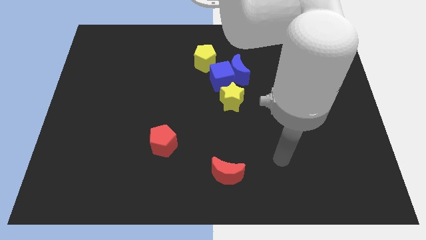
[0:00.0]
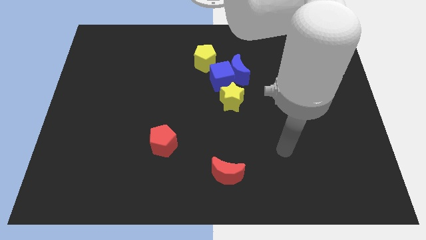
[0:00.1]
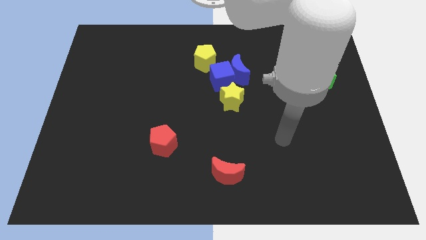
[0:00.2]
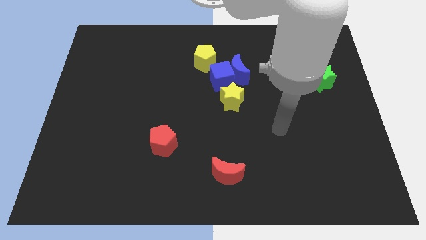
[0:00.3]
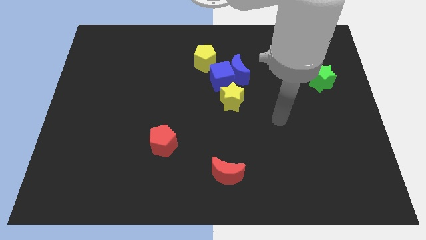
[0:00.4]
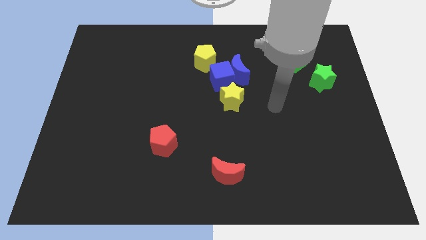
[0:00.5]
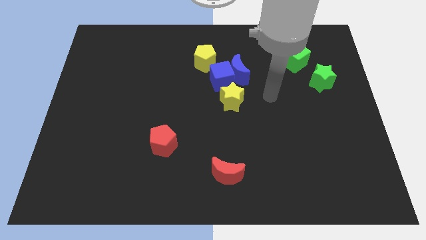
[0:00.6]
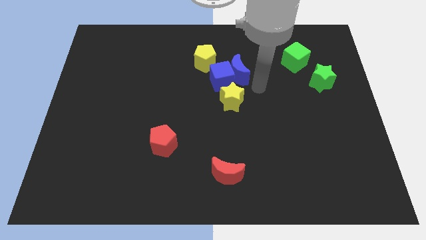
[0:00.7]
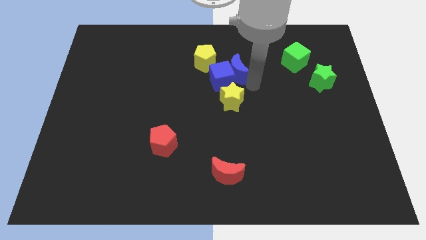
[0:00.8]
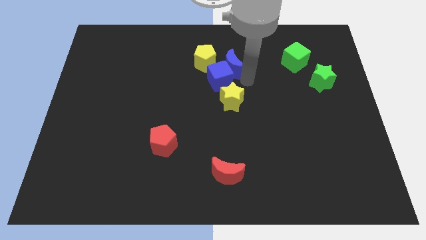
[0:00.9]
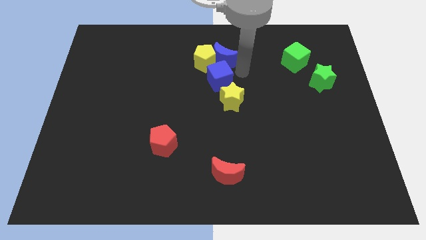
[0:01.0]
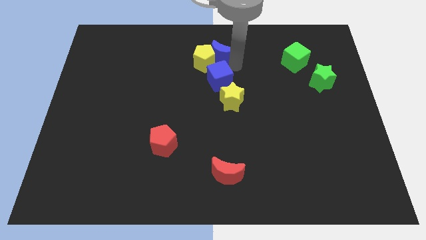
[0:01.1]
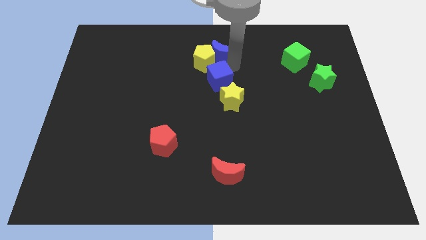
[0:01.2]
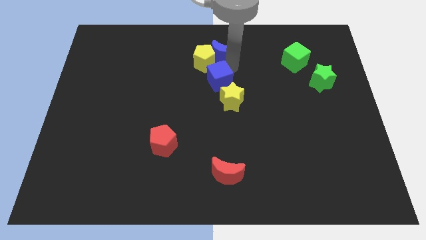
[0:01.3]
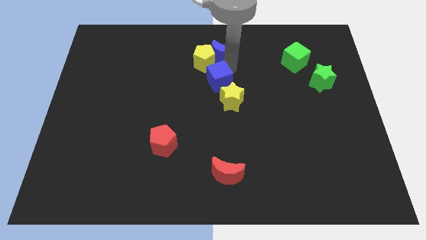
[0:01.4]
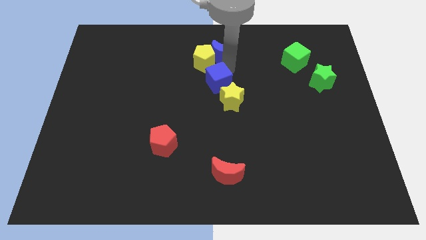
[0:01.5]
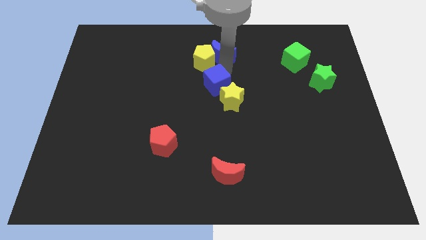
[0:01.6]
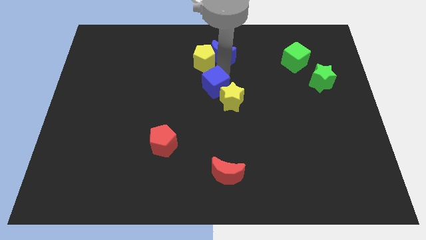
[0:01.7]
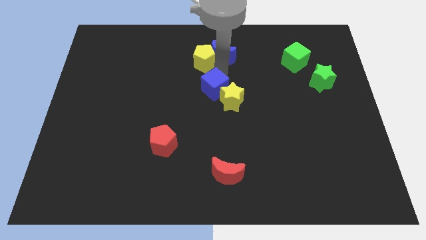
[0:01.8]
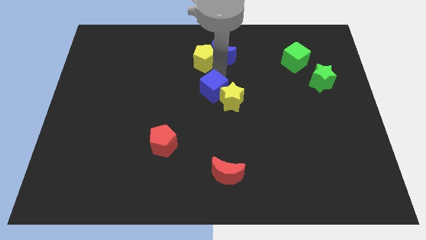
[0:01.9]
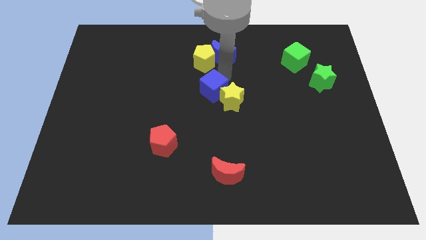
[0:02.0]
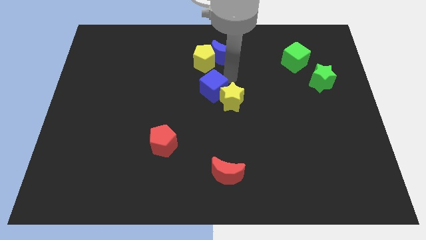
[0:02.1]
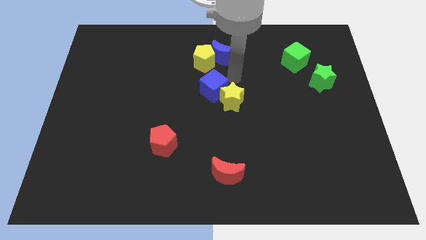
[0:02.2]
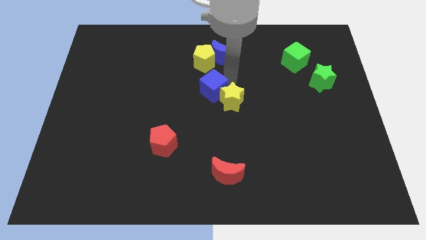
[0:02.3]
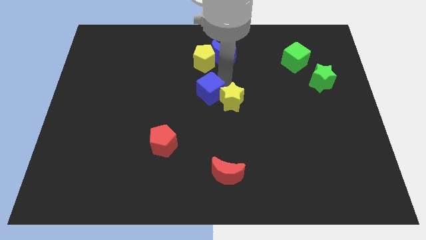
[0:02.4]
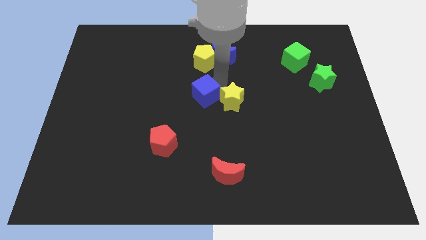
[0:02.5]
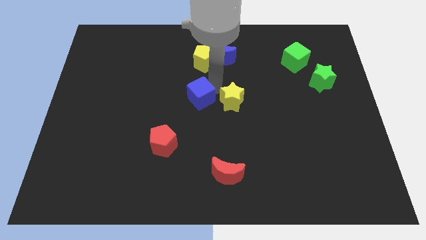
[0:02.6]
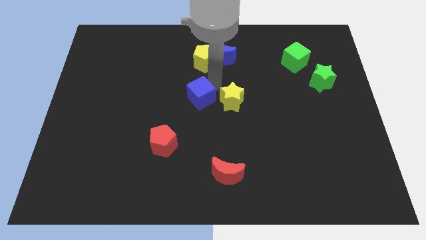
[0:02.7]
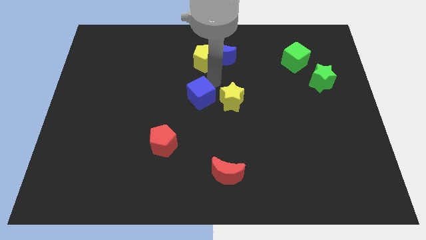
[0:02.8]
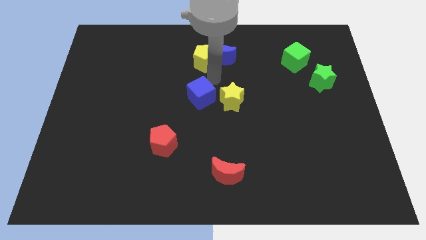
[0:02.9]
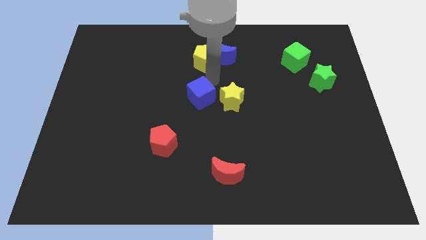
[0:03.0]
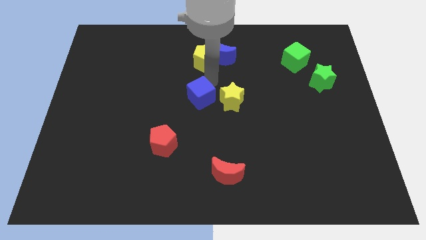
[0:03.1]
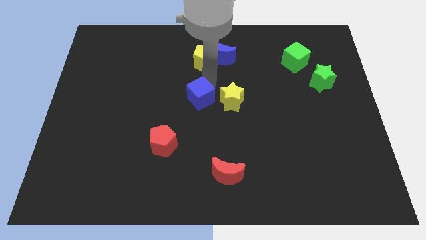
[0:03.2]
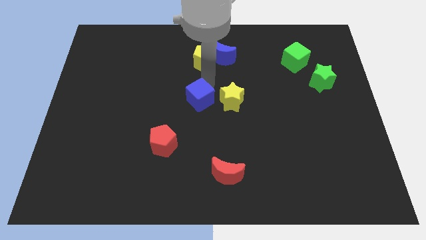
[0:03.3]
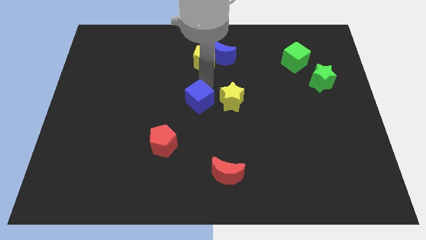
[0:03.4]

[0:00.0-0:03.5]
move the blue cube away from the group

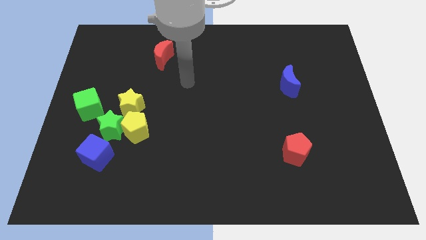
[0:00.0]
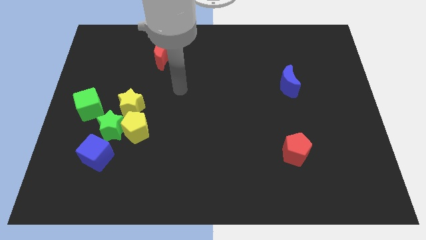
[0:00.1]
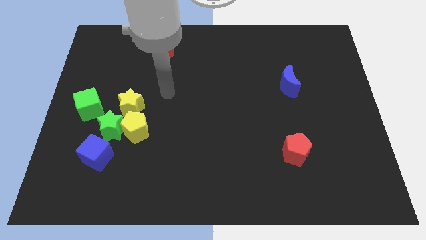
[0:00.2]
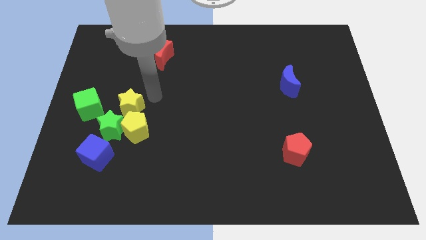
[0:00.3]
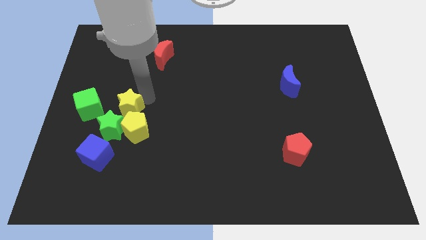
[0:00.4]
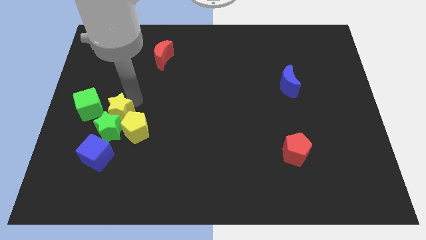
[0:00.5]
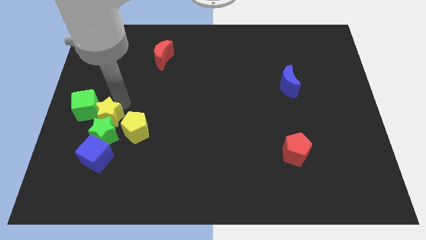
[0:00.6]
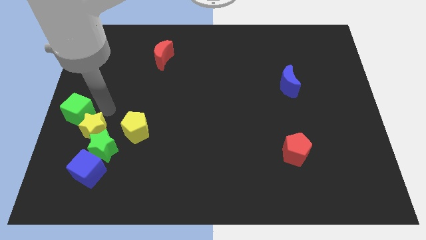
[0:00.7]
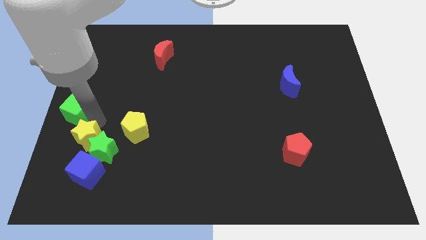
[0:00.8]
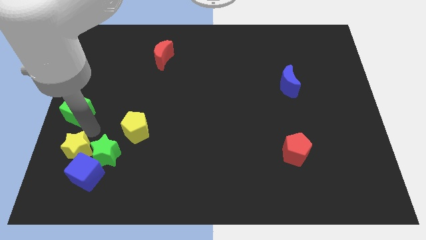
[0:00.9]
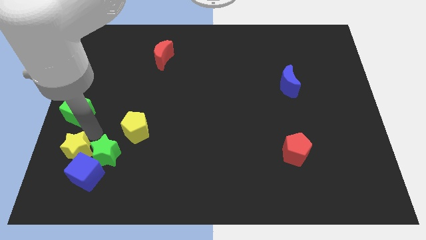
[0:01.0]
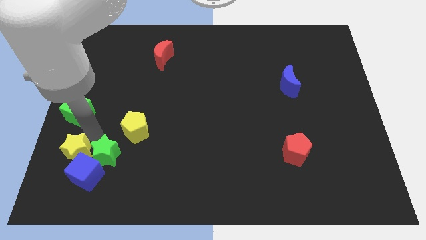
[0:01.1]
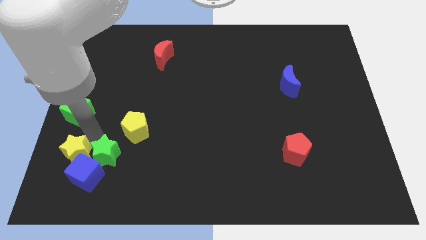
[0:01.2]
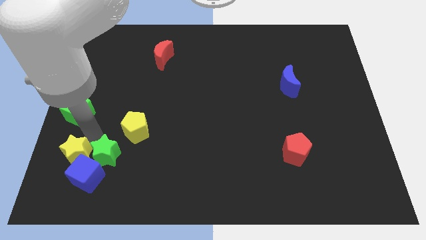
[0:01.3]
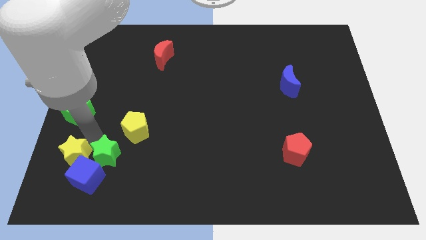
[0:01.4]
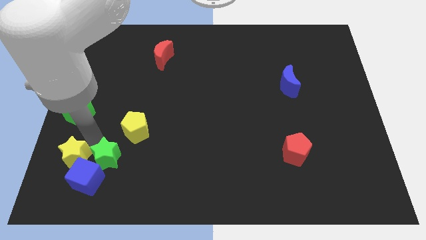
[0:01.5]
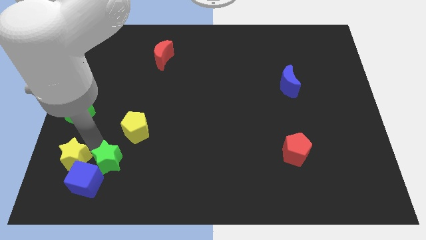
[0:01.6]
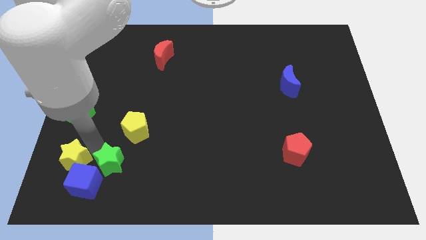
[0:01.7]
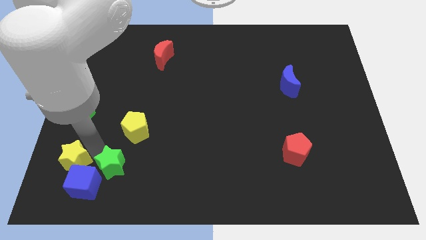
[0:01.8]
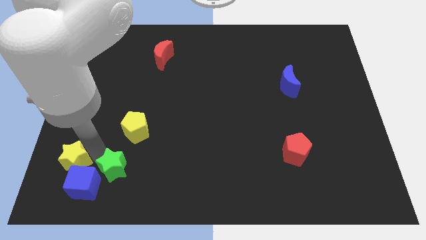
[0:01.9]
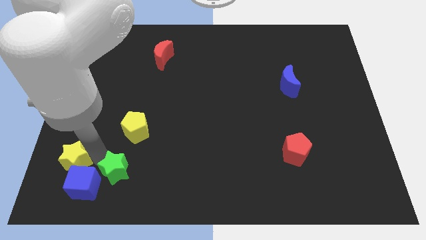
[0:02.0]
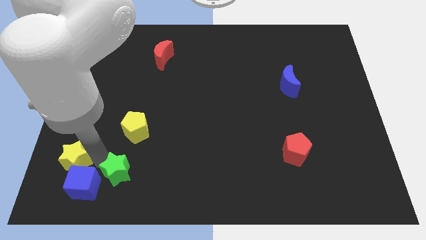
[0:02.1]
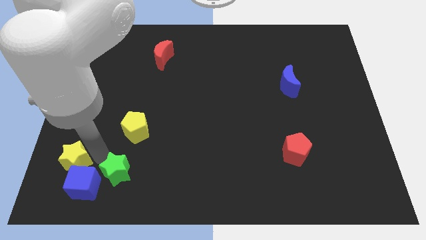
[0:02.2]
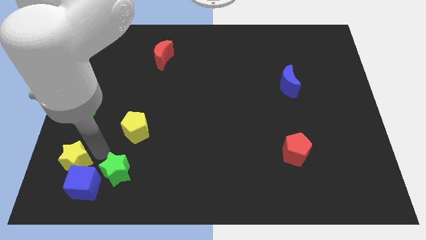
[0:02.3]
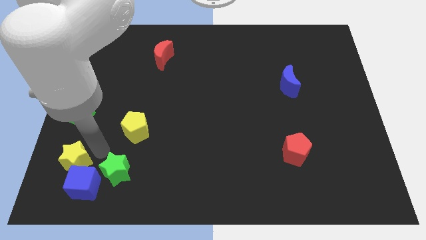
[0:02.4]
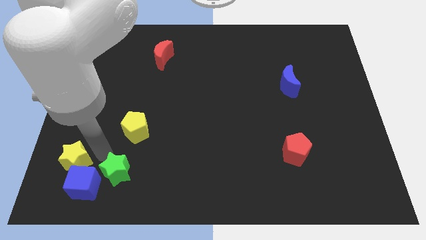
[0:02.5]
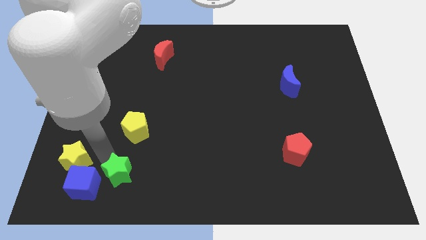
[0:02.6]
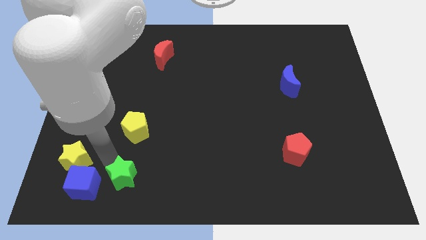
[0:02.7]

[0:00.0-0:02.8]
separate the green star from the group

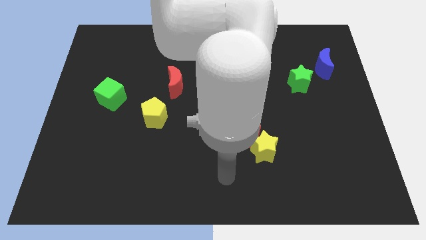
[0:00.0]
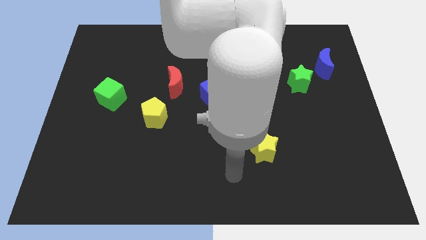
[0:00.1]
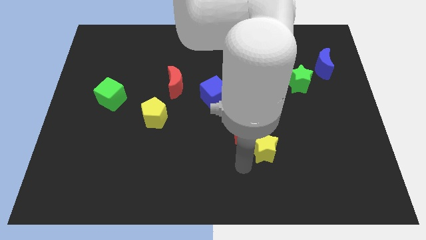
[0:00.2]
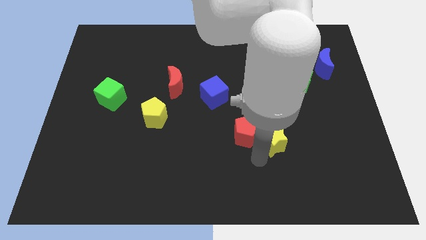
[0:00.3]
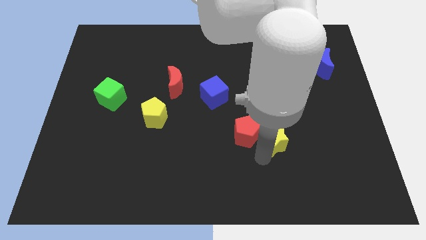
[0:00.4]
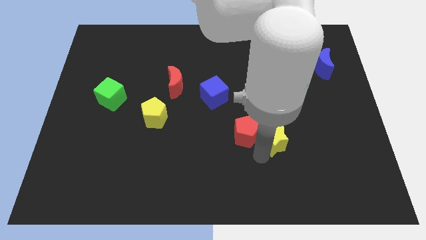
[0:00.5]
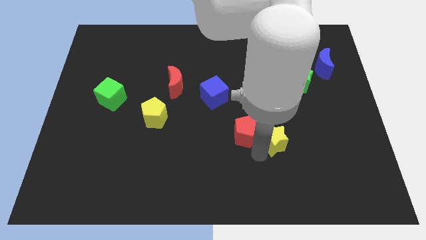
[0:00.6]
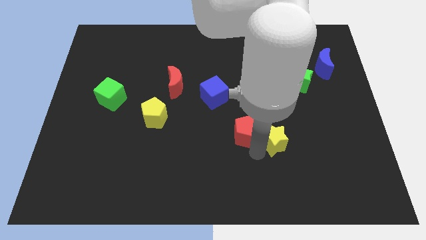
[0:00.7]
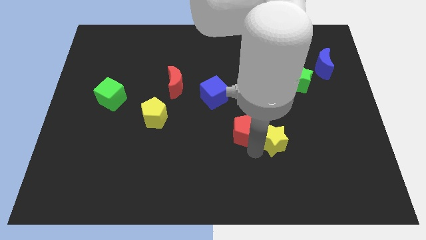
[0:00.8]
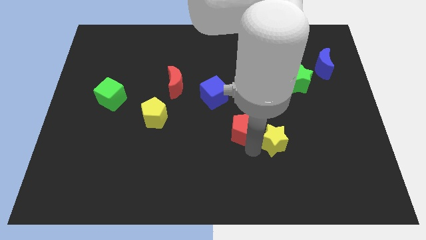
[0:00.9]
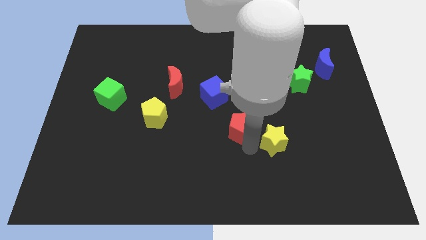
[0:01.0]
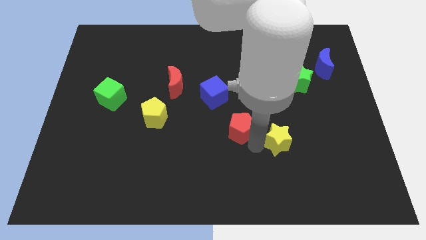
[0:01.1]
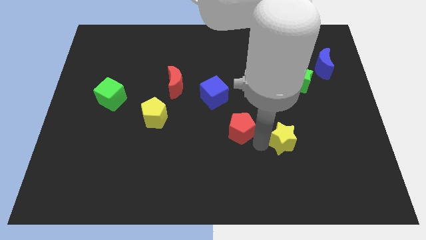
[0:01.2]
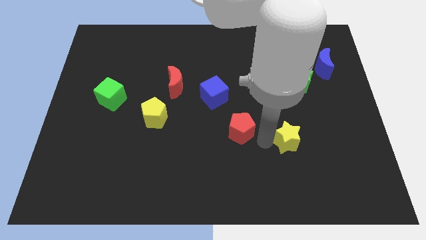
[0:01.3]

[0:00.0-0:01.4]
pull the red pentagon apart from the yellow star

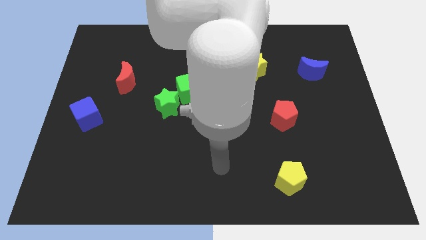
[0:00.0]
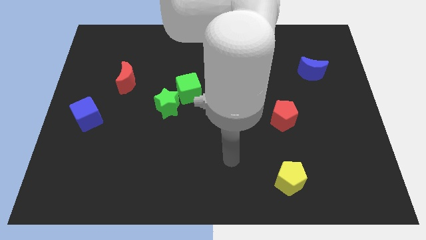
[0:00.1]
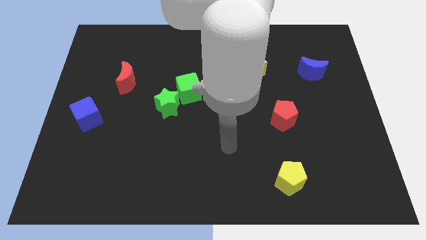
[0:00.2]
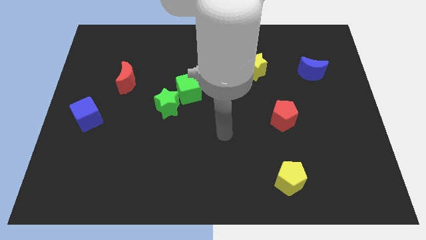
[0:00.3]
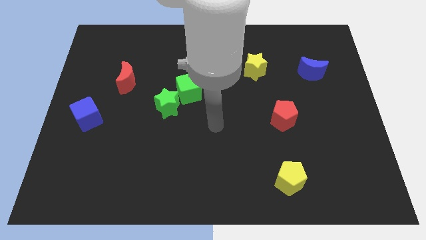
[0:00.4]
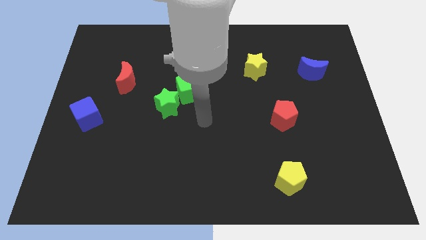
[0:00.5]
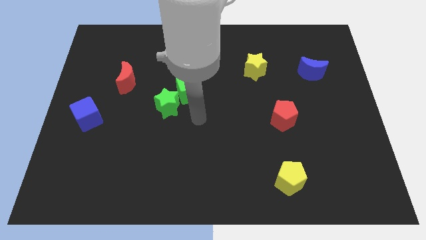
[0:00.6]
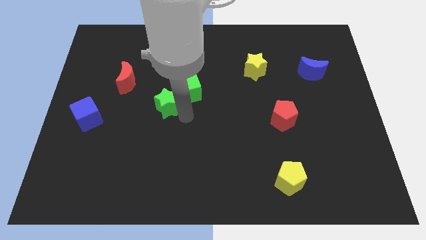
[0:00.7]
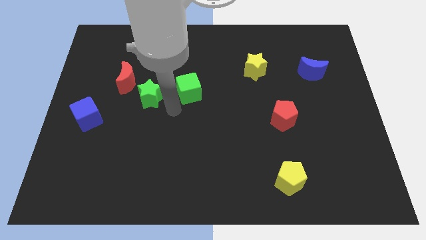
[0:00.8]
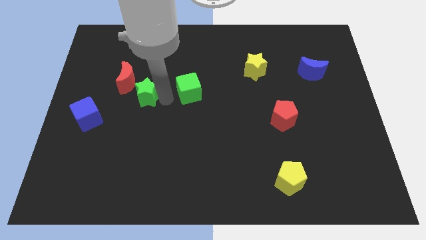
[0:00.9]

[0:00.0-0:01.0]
pull the green cube apart from the green star

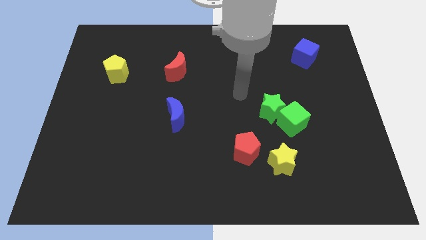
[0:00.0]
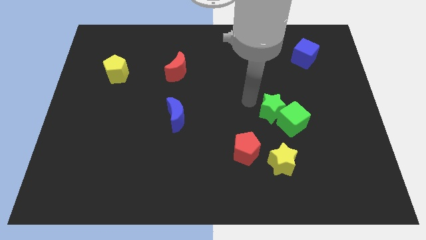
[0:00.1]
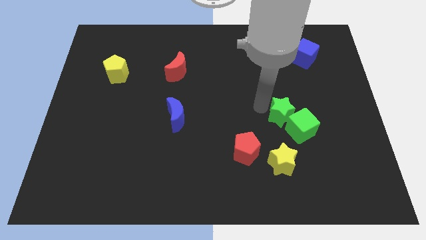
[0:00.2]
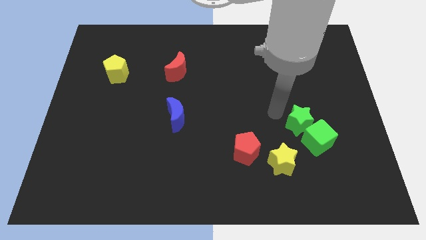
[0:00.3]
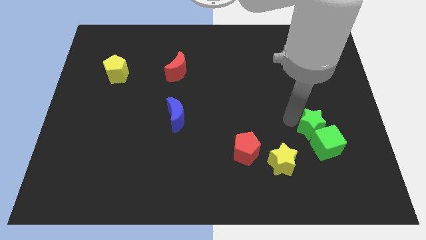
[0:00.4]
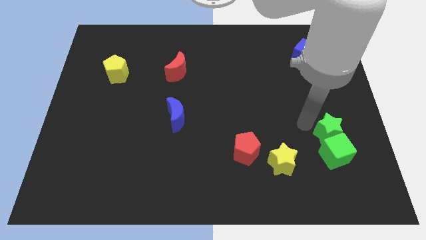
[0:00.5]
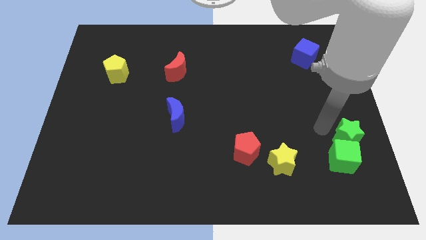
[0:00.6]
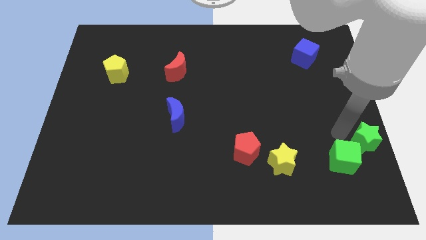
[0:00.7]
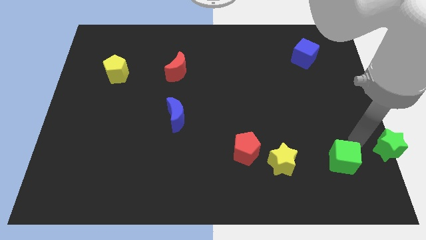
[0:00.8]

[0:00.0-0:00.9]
move the green cube away from the green star
